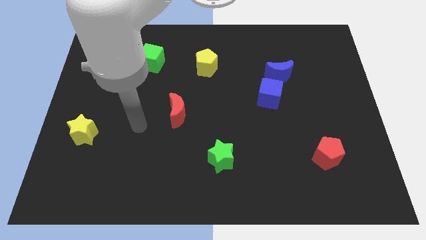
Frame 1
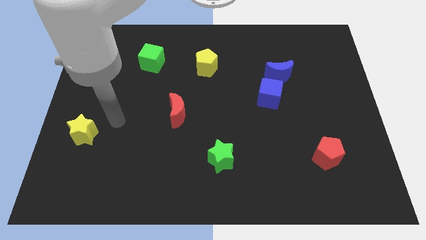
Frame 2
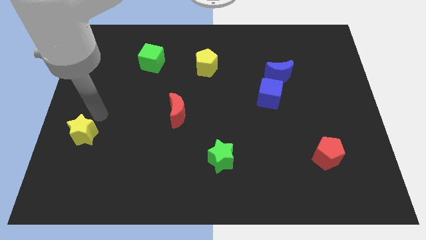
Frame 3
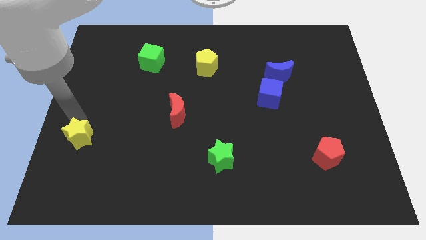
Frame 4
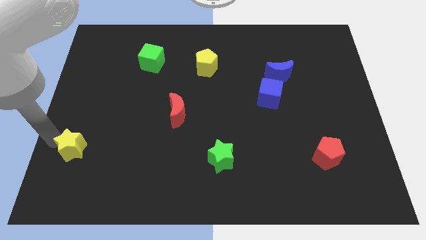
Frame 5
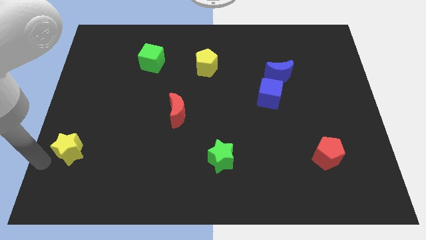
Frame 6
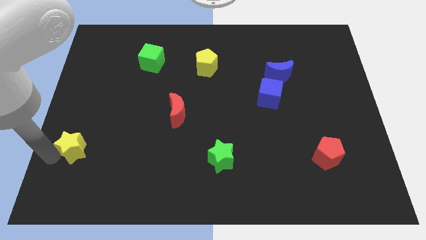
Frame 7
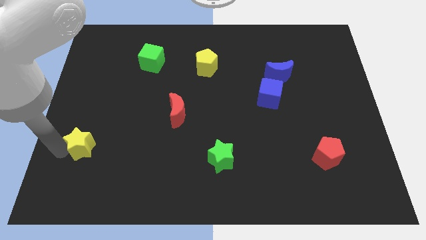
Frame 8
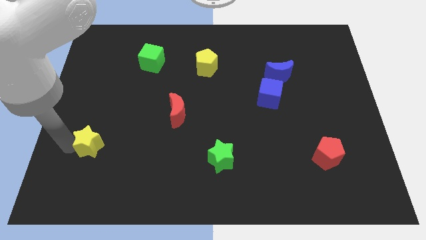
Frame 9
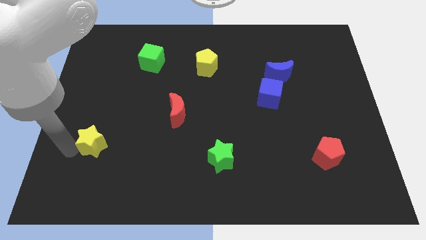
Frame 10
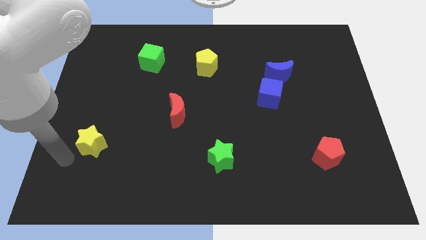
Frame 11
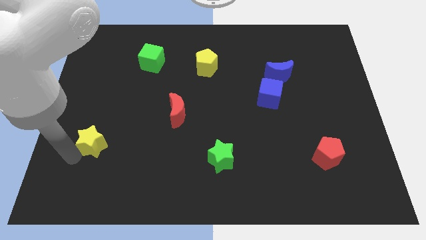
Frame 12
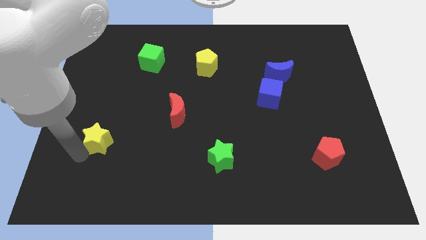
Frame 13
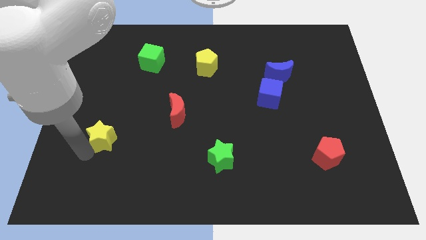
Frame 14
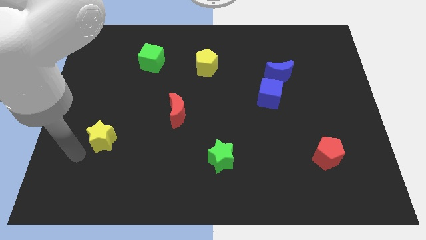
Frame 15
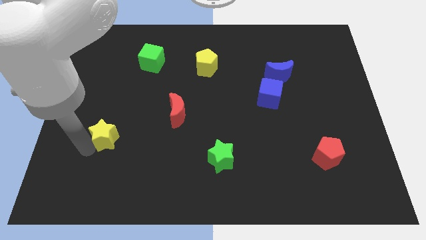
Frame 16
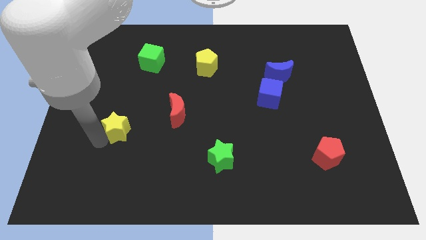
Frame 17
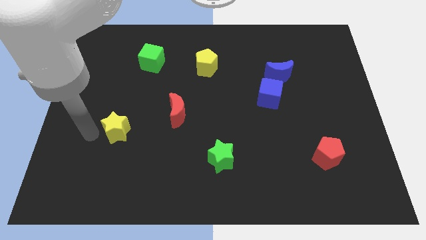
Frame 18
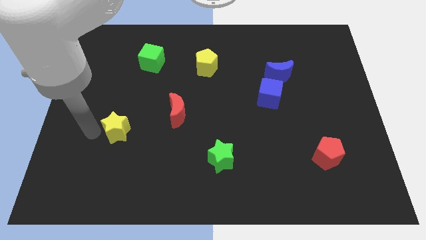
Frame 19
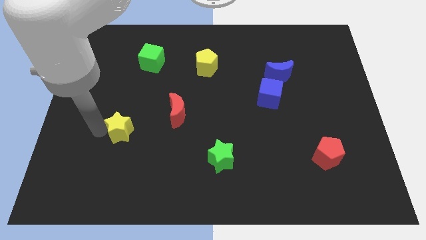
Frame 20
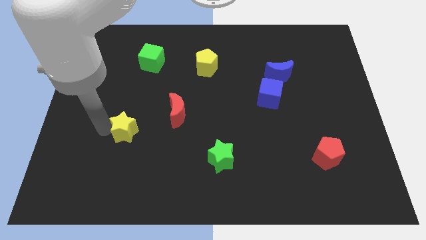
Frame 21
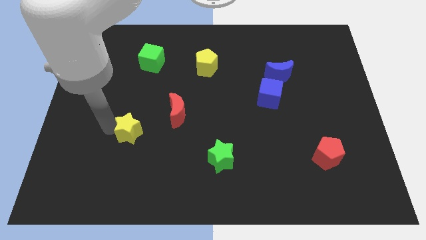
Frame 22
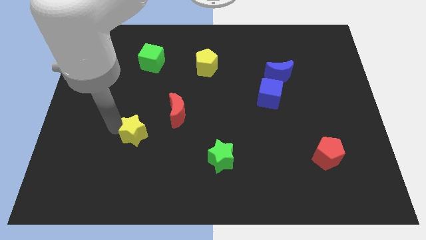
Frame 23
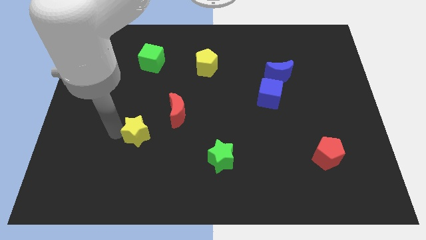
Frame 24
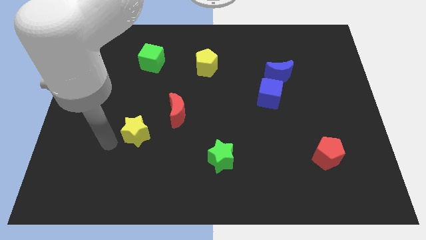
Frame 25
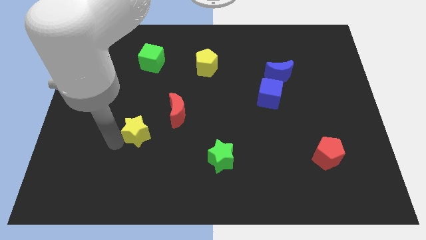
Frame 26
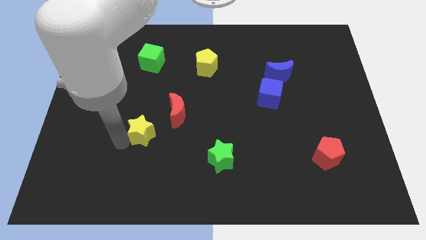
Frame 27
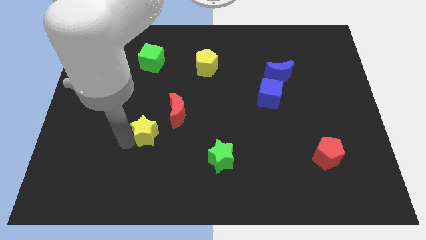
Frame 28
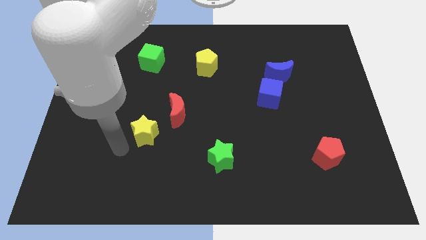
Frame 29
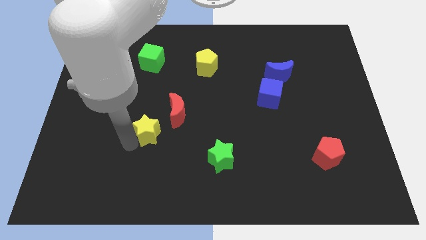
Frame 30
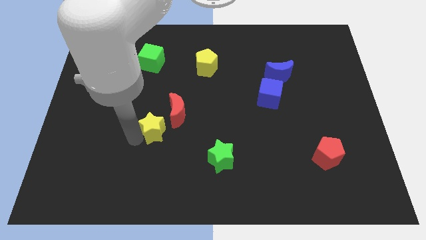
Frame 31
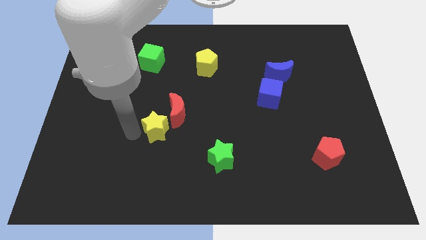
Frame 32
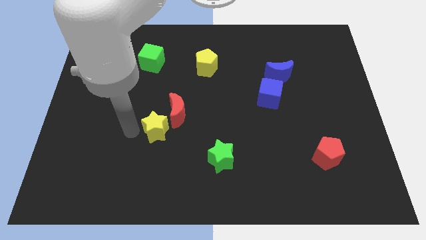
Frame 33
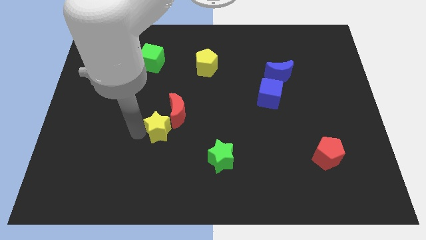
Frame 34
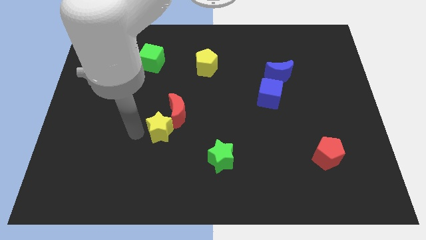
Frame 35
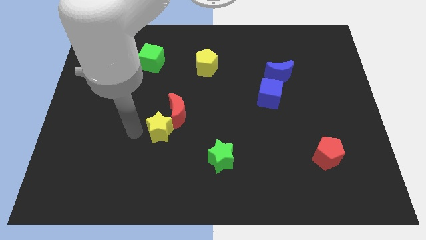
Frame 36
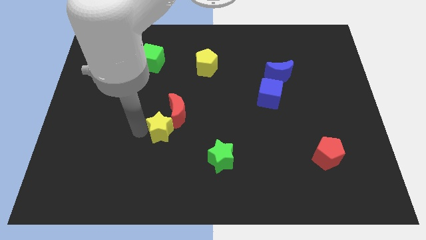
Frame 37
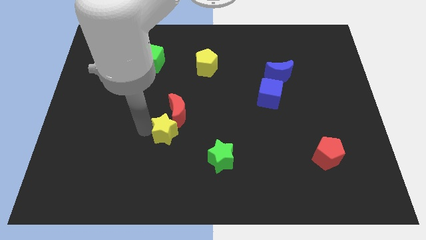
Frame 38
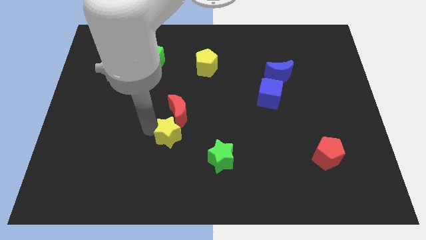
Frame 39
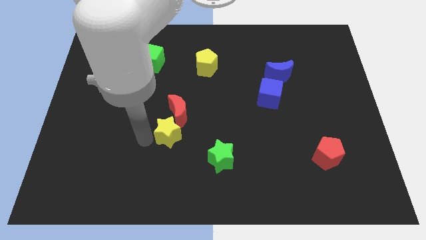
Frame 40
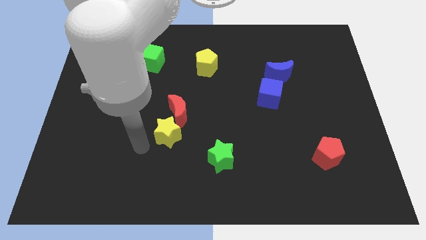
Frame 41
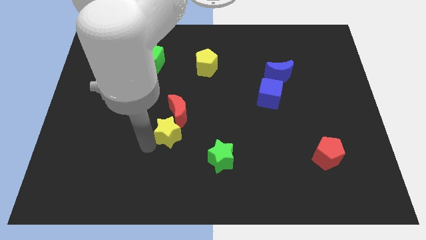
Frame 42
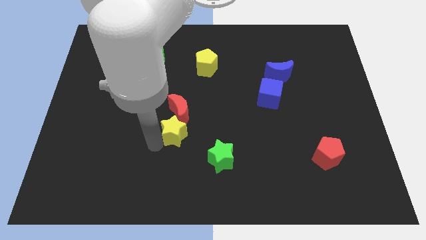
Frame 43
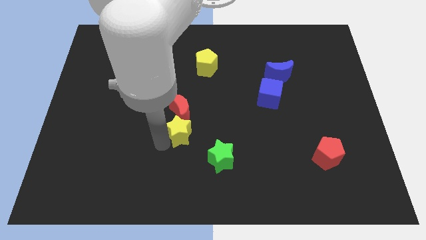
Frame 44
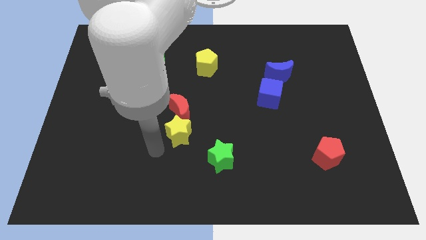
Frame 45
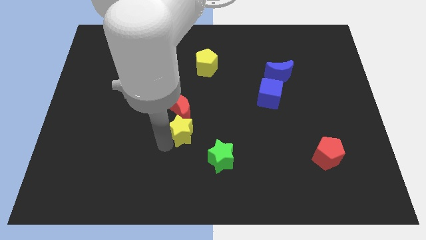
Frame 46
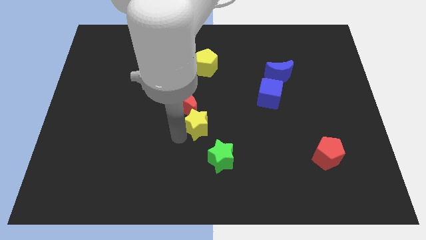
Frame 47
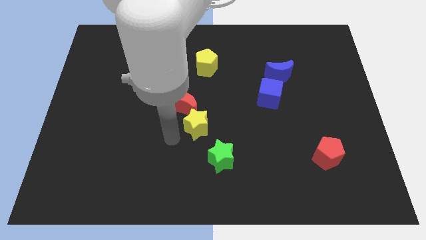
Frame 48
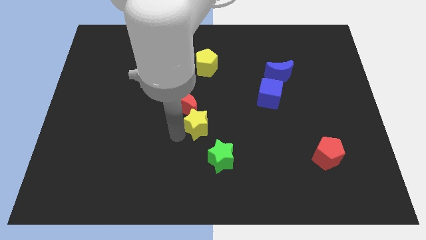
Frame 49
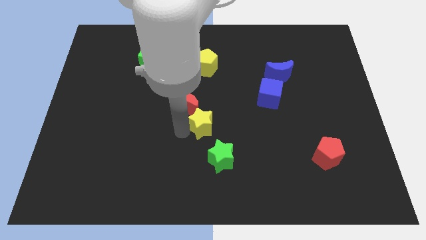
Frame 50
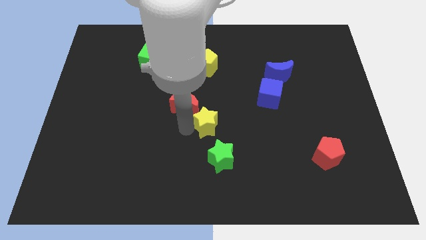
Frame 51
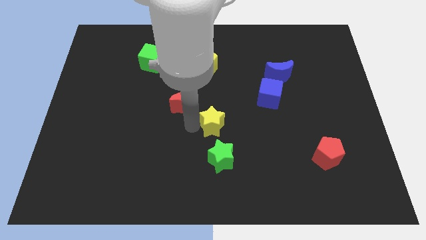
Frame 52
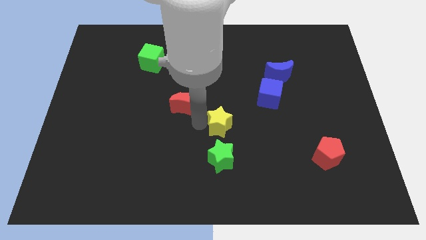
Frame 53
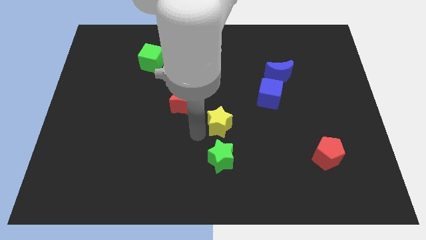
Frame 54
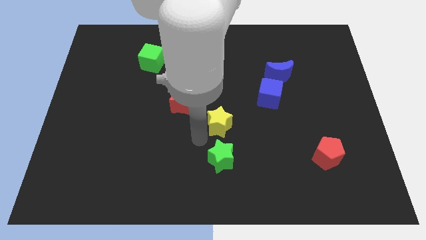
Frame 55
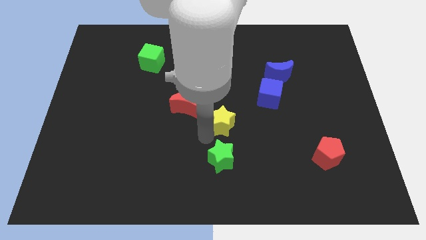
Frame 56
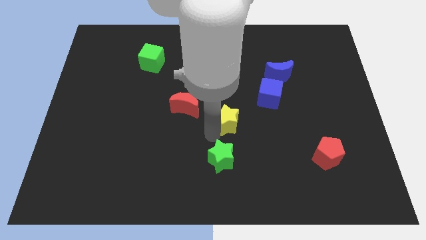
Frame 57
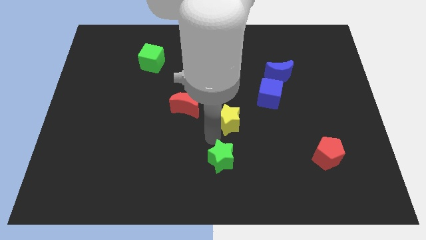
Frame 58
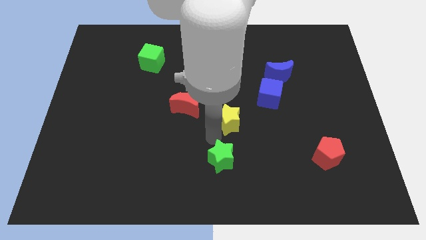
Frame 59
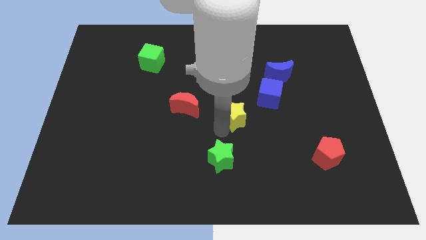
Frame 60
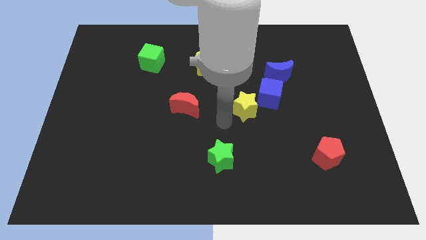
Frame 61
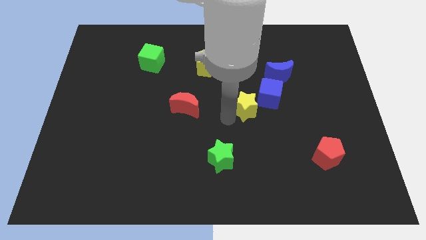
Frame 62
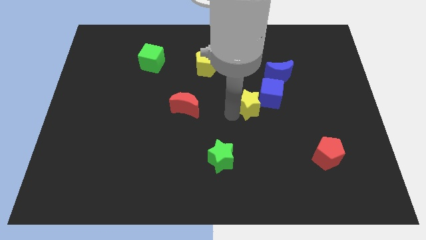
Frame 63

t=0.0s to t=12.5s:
slide the yellow star to the blue cube
